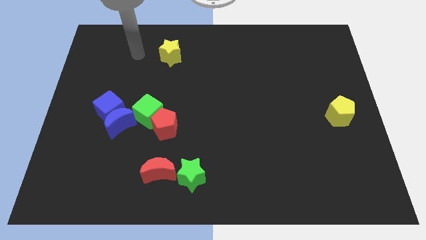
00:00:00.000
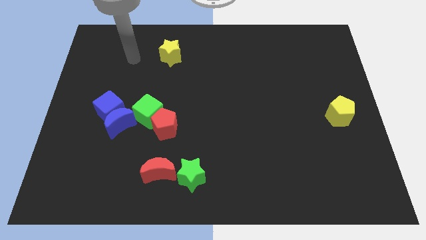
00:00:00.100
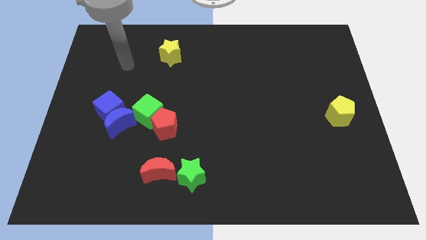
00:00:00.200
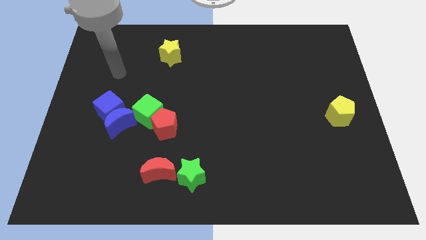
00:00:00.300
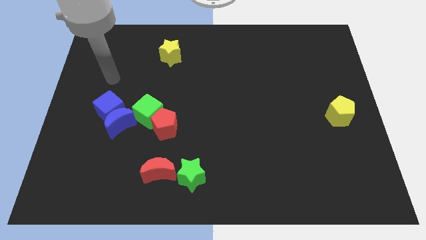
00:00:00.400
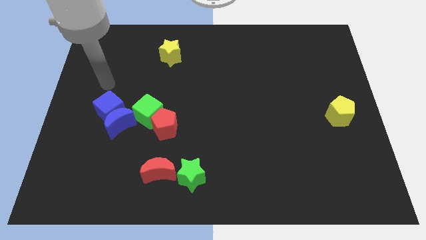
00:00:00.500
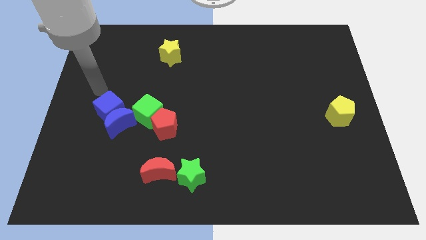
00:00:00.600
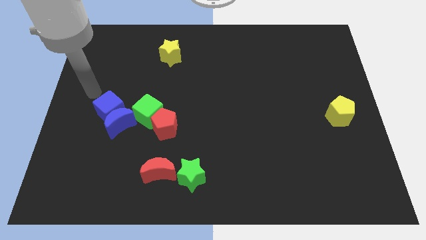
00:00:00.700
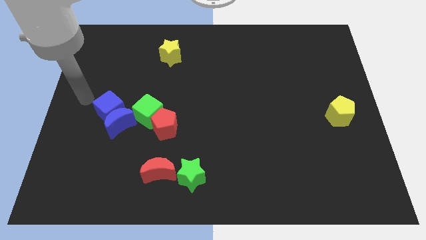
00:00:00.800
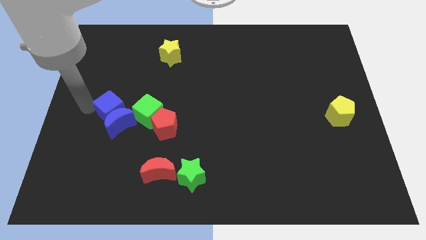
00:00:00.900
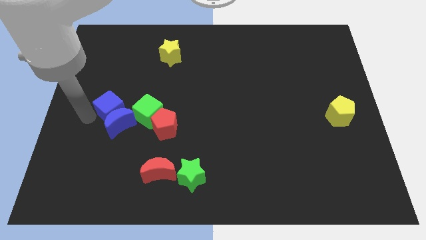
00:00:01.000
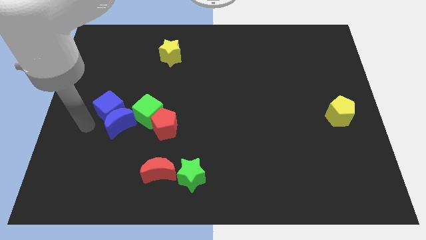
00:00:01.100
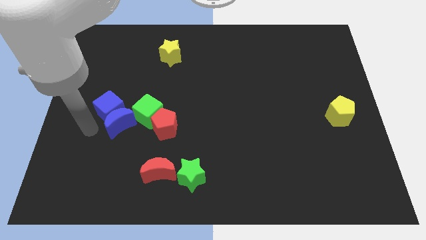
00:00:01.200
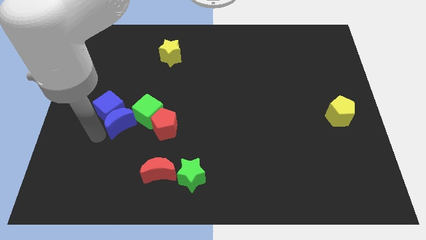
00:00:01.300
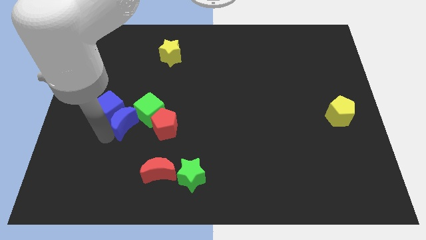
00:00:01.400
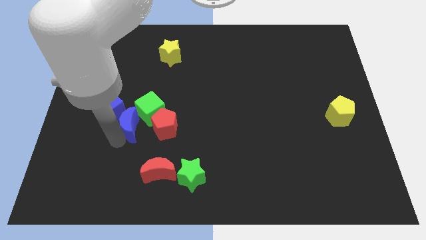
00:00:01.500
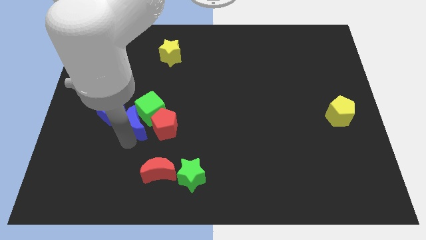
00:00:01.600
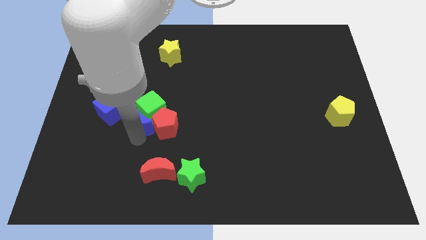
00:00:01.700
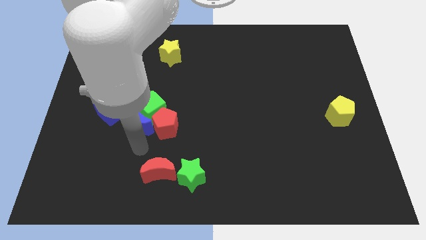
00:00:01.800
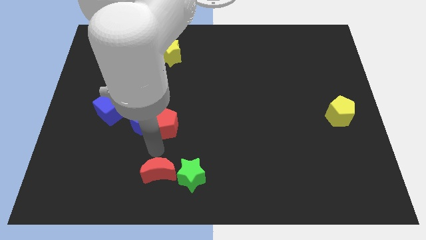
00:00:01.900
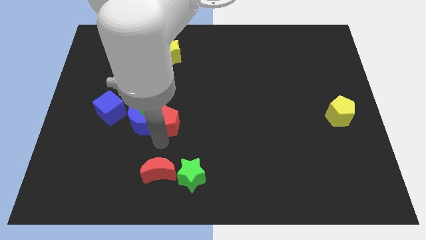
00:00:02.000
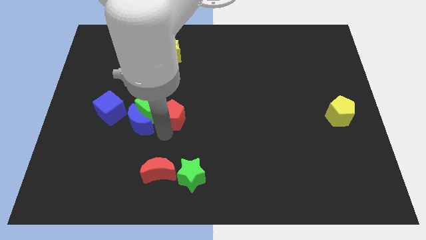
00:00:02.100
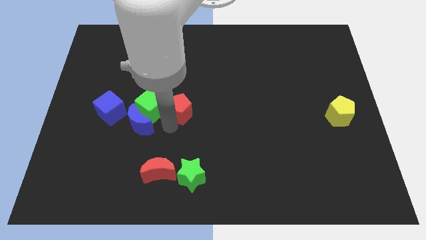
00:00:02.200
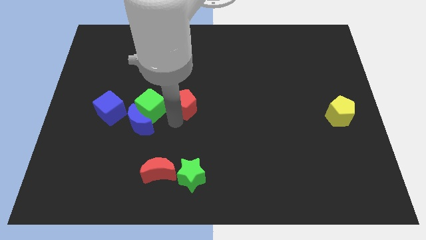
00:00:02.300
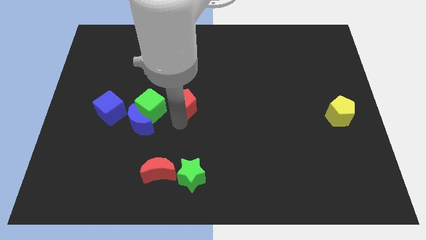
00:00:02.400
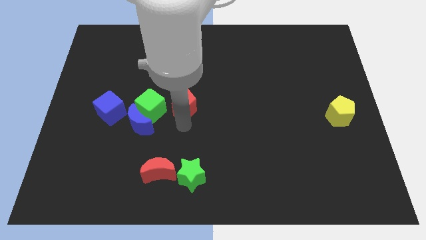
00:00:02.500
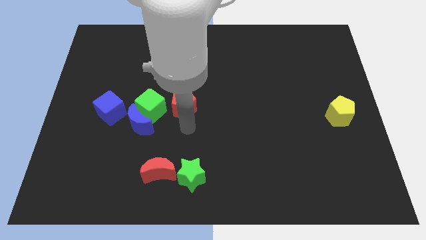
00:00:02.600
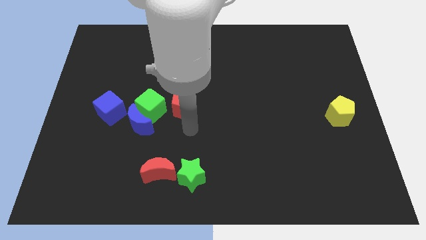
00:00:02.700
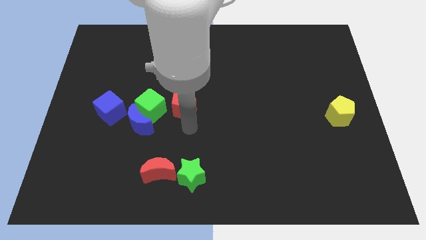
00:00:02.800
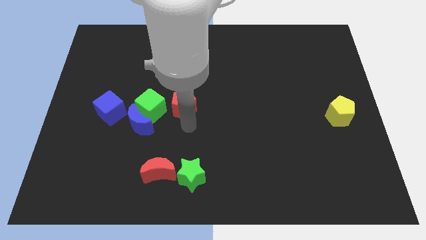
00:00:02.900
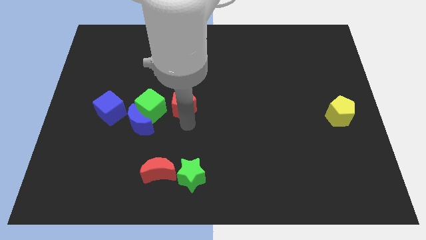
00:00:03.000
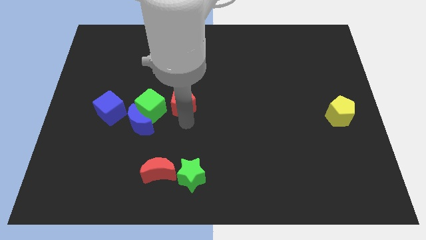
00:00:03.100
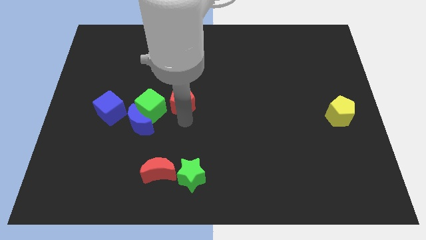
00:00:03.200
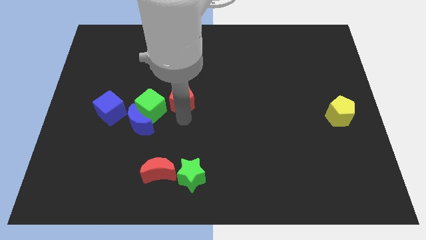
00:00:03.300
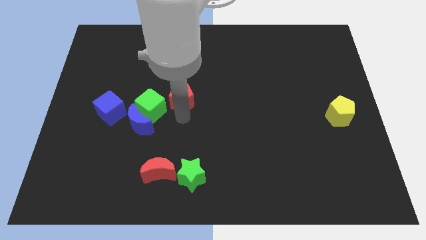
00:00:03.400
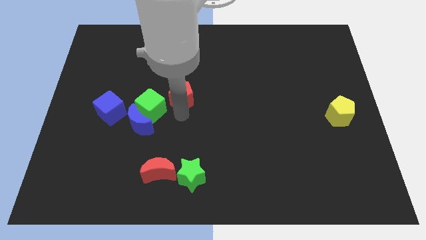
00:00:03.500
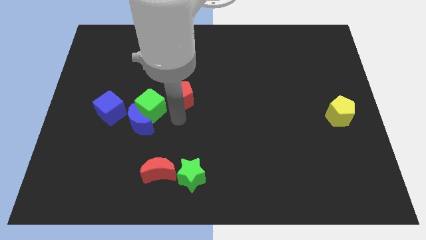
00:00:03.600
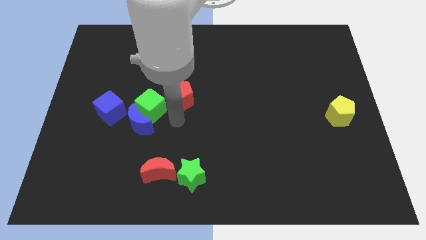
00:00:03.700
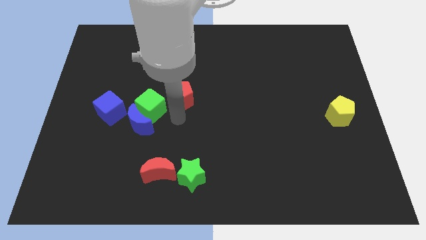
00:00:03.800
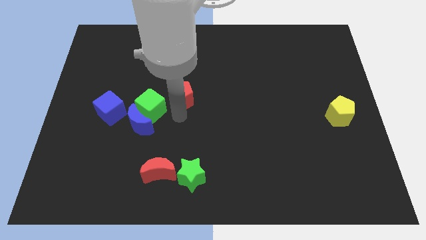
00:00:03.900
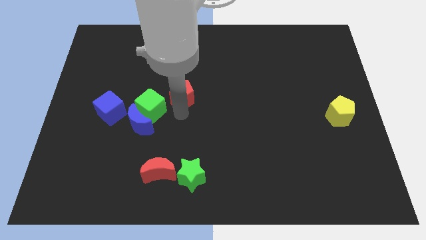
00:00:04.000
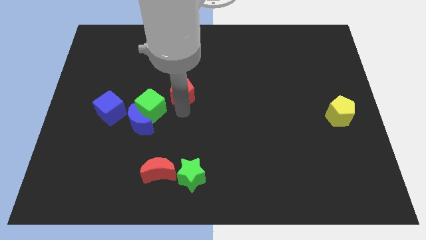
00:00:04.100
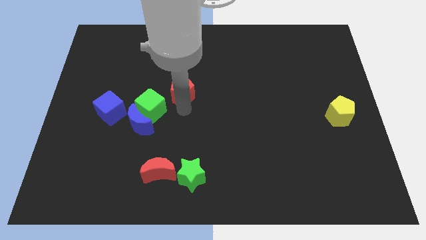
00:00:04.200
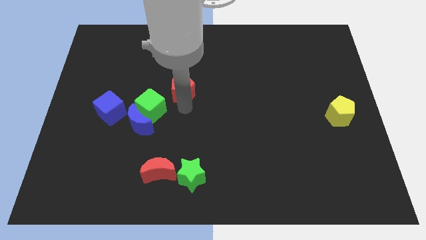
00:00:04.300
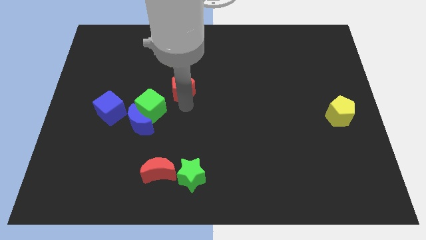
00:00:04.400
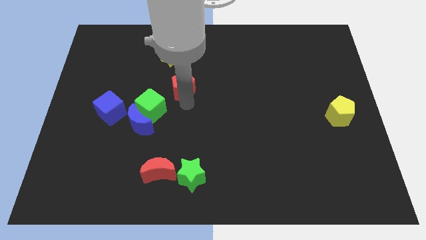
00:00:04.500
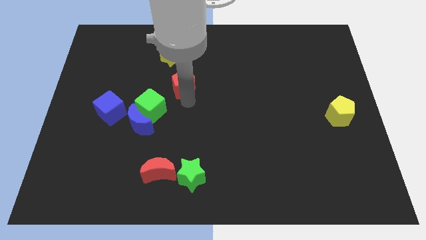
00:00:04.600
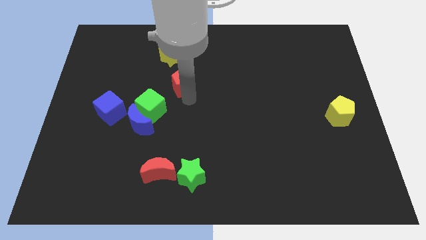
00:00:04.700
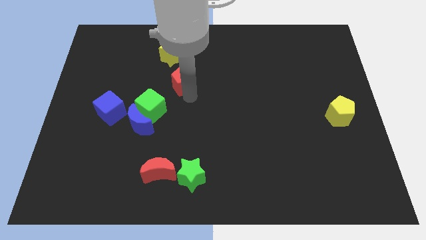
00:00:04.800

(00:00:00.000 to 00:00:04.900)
put the red pentagon to the bottom right side of the yellow star

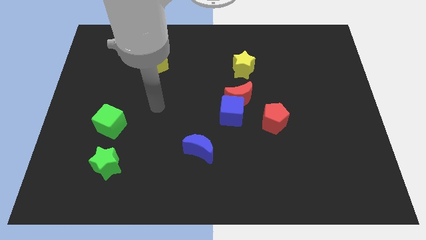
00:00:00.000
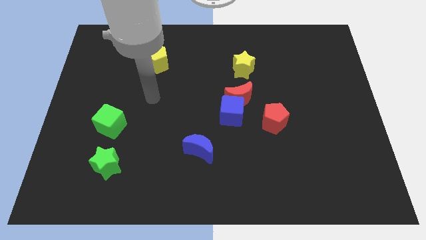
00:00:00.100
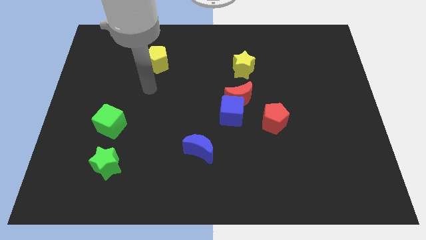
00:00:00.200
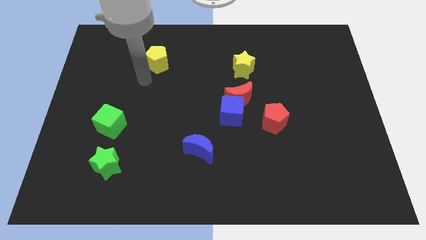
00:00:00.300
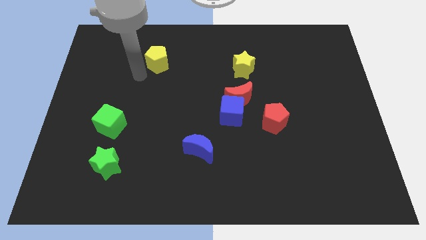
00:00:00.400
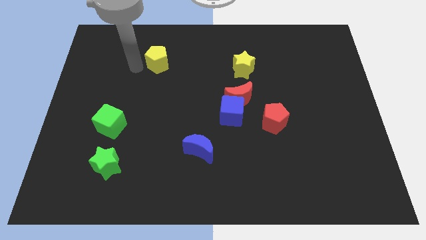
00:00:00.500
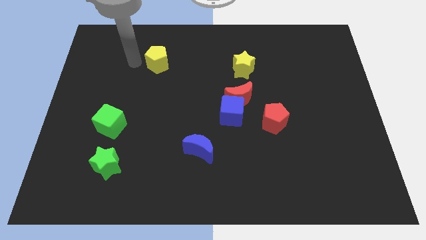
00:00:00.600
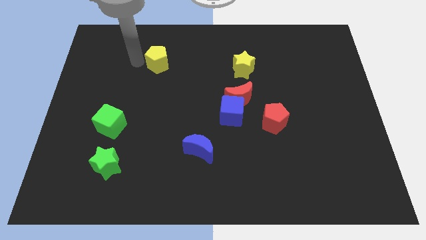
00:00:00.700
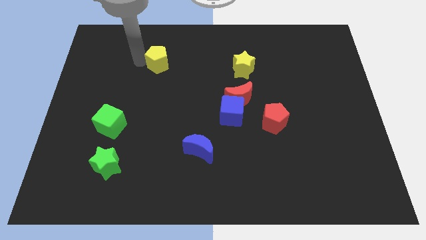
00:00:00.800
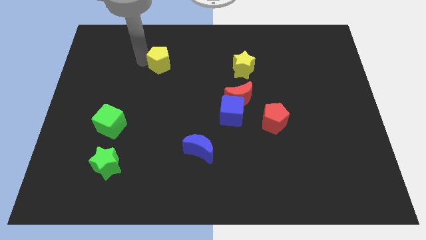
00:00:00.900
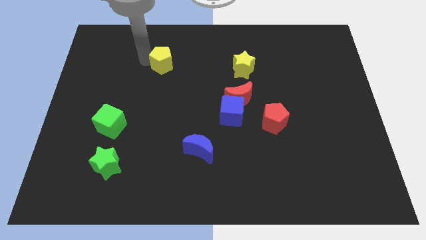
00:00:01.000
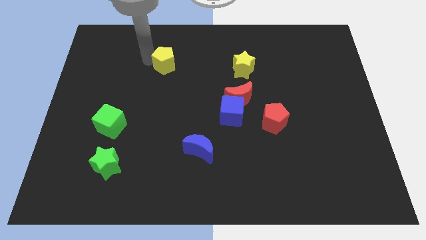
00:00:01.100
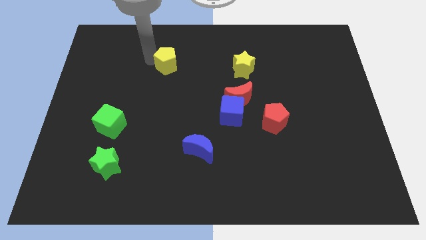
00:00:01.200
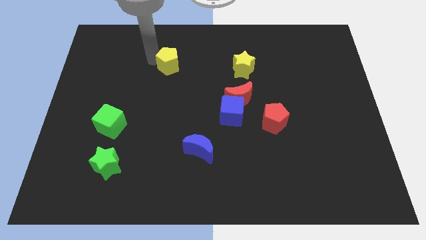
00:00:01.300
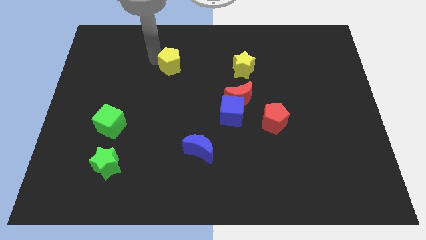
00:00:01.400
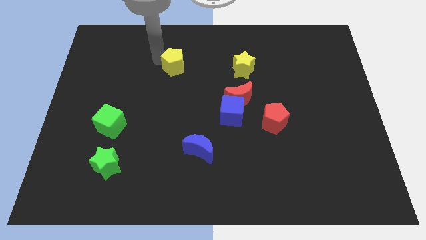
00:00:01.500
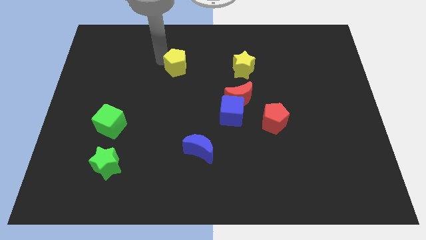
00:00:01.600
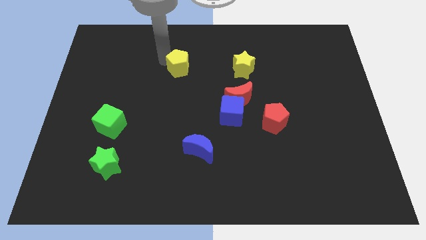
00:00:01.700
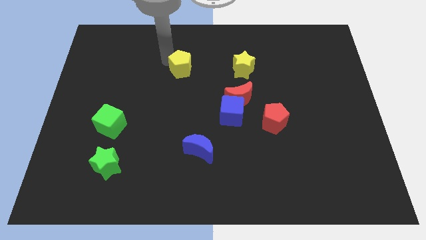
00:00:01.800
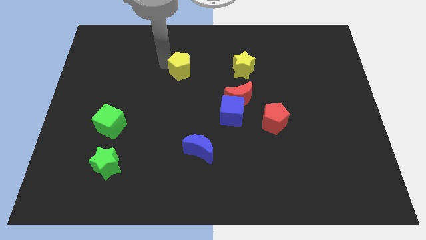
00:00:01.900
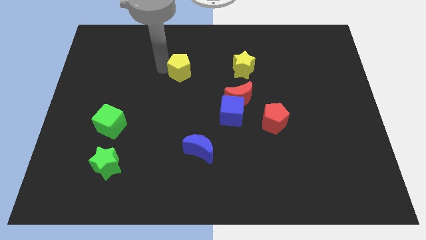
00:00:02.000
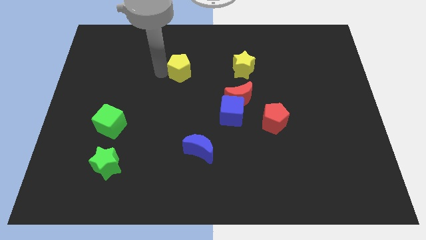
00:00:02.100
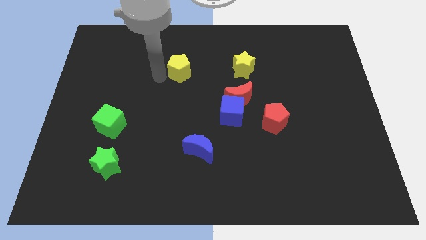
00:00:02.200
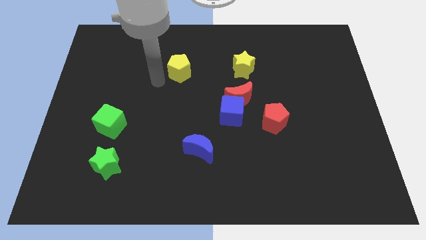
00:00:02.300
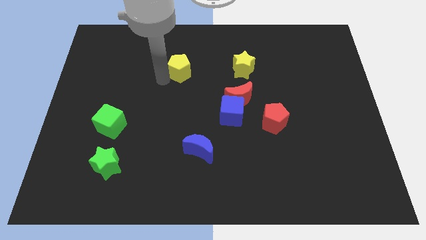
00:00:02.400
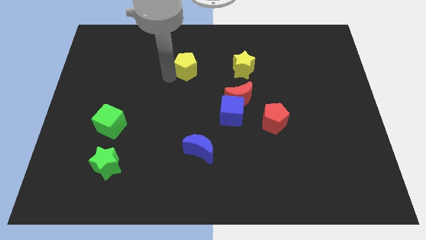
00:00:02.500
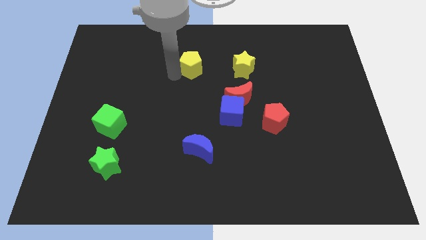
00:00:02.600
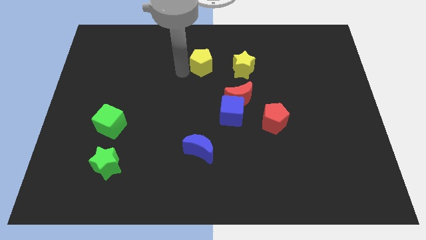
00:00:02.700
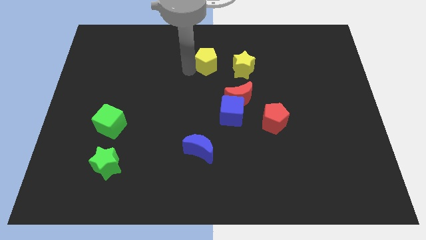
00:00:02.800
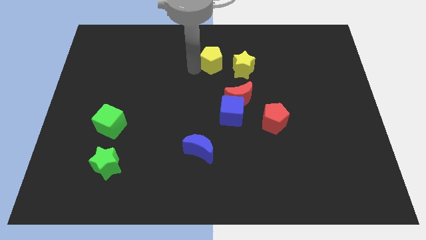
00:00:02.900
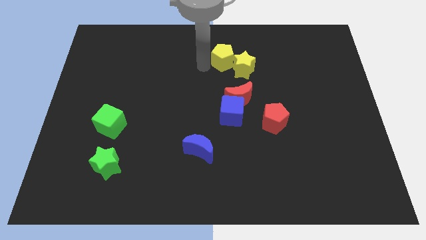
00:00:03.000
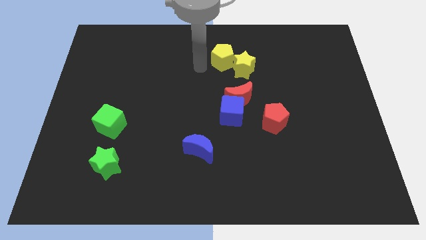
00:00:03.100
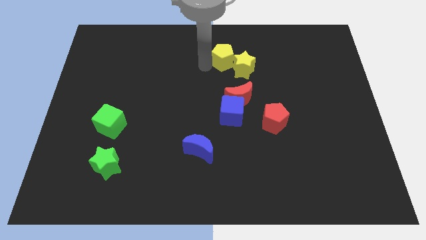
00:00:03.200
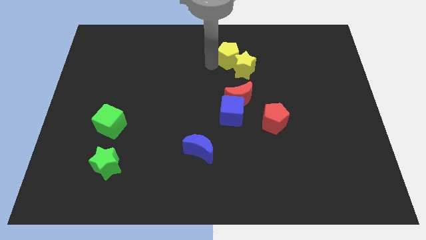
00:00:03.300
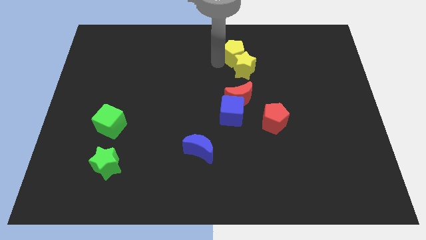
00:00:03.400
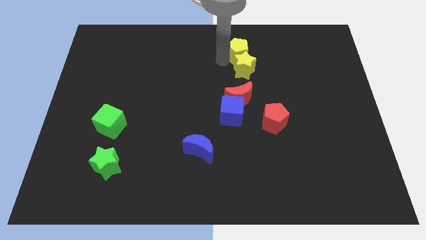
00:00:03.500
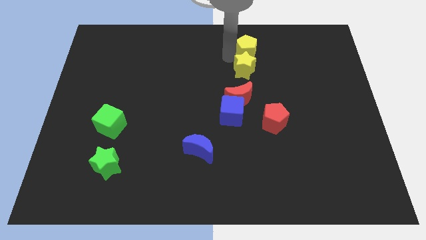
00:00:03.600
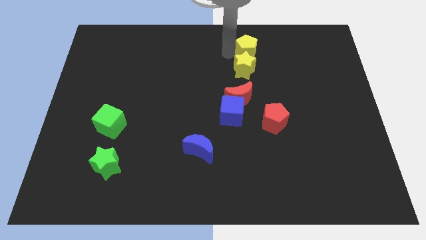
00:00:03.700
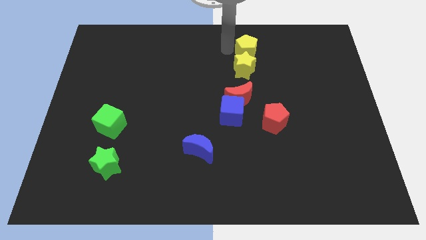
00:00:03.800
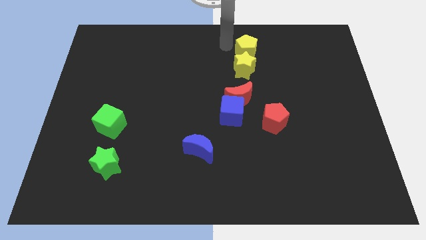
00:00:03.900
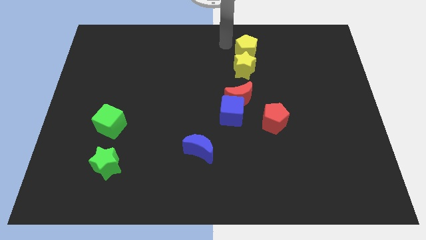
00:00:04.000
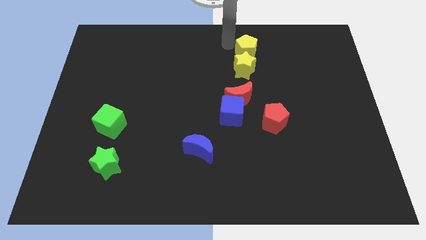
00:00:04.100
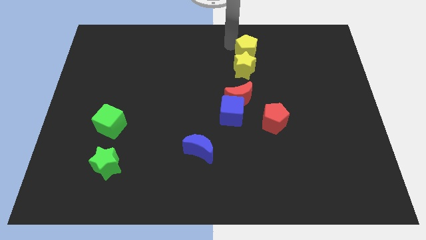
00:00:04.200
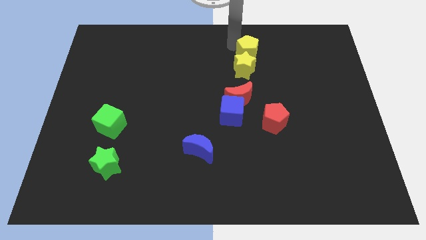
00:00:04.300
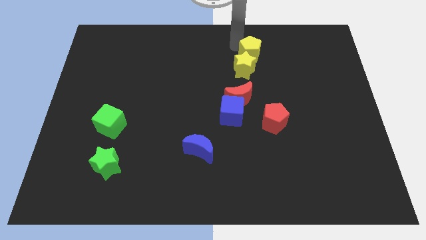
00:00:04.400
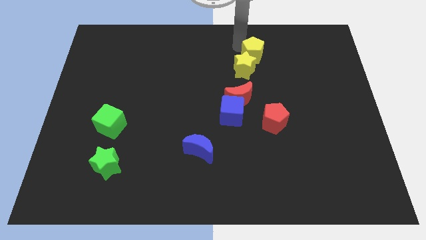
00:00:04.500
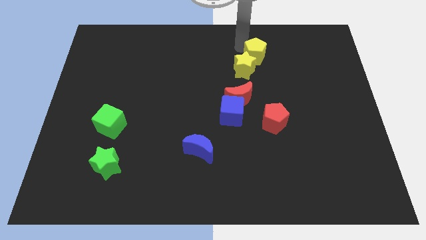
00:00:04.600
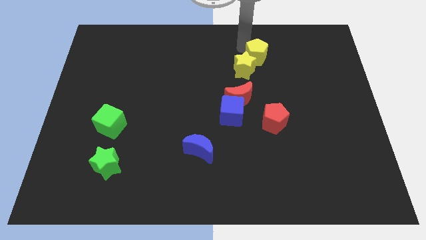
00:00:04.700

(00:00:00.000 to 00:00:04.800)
move the yellow pentagon to the right side of the yellow star
